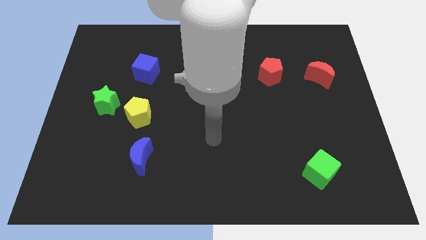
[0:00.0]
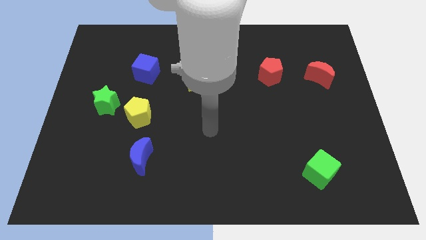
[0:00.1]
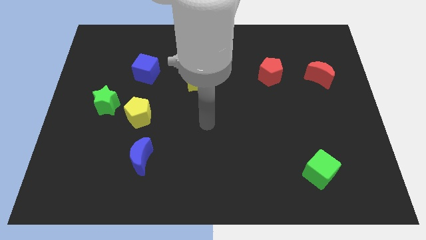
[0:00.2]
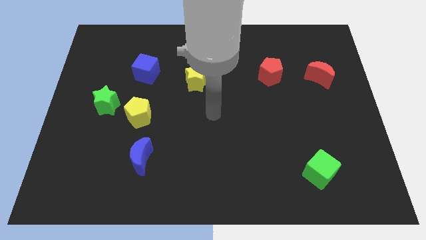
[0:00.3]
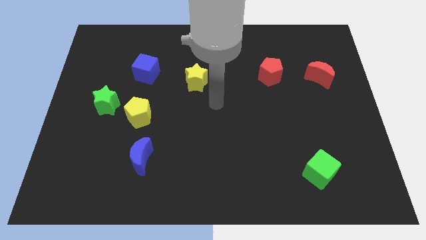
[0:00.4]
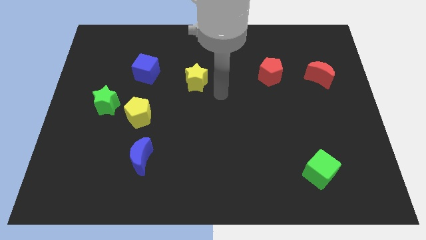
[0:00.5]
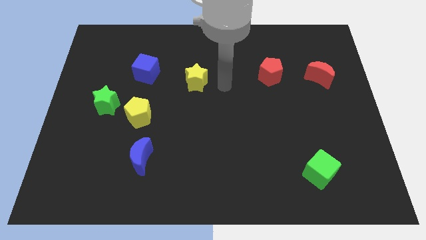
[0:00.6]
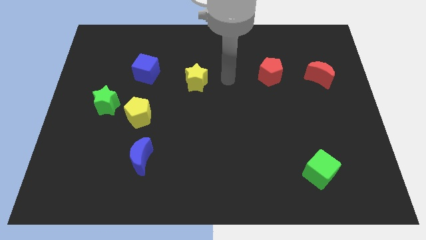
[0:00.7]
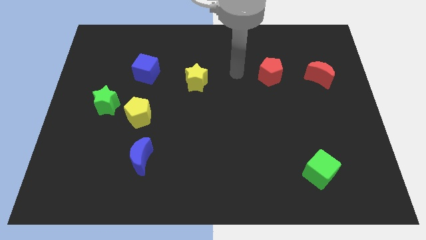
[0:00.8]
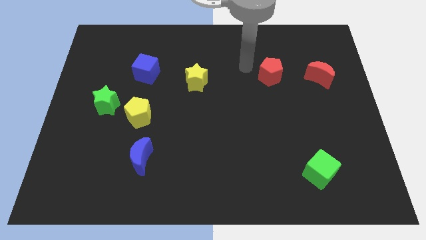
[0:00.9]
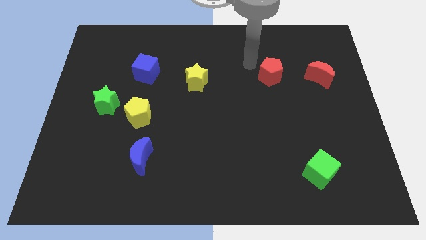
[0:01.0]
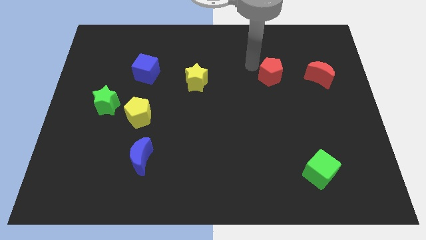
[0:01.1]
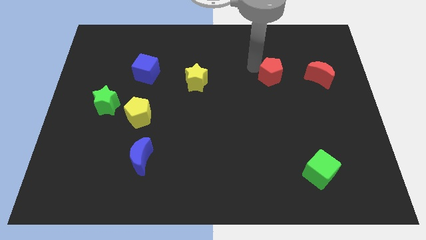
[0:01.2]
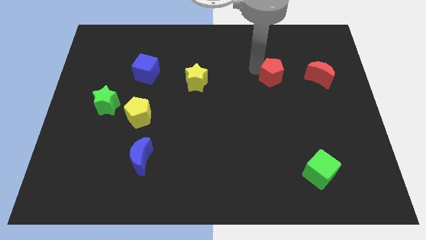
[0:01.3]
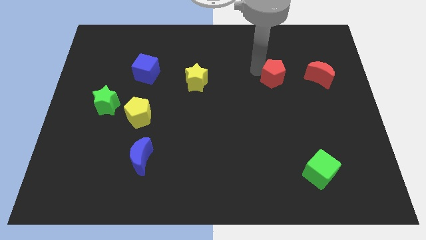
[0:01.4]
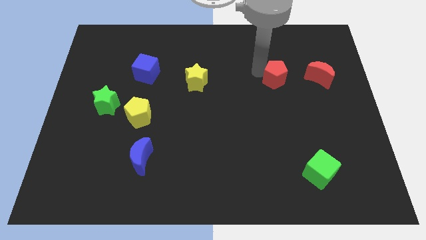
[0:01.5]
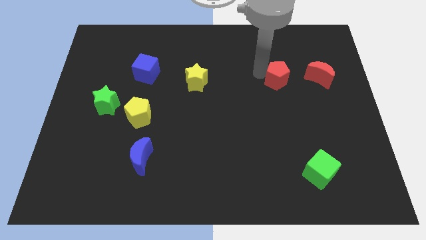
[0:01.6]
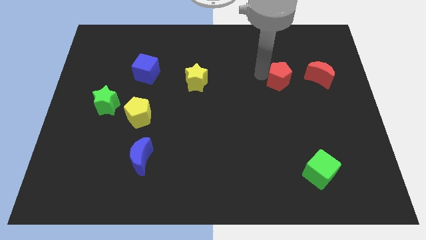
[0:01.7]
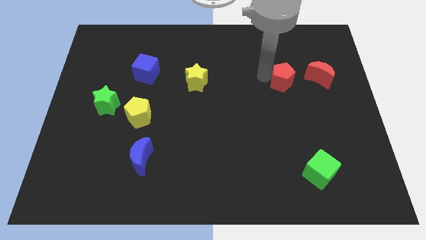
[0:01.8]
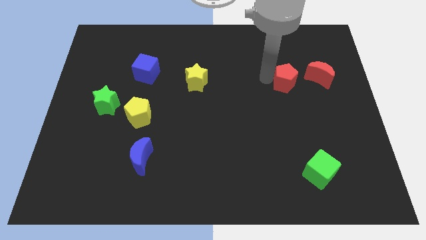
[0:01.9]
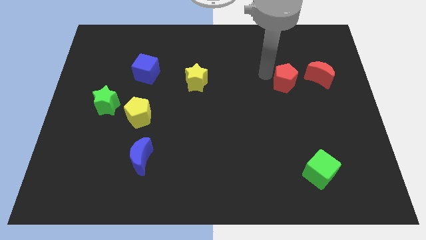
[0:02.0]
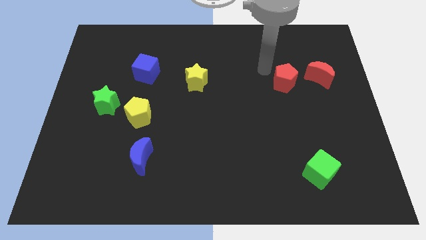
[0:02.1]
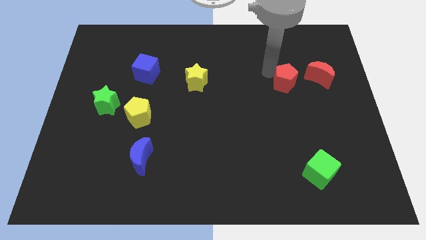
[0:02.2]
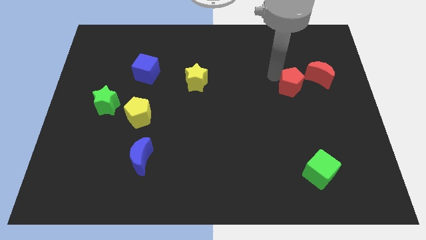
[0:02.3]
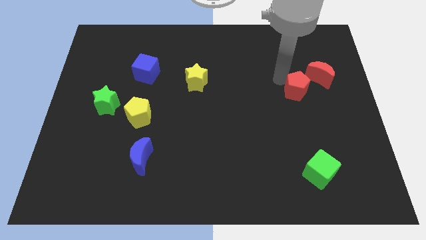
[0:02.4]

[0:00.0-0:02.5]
push the red pentagon diagonally down and right slightly

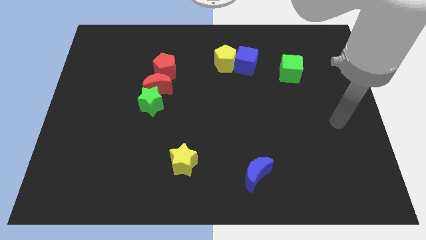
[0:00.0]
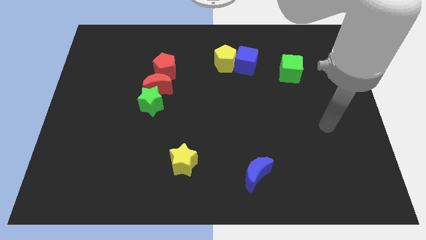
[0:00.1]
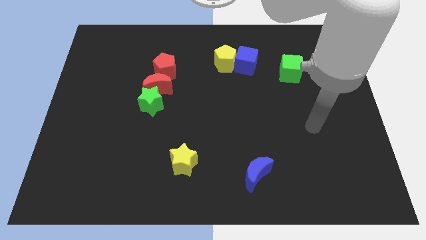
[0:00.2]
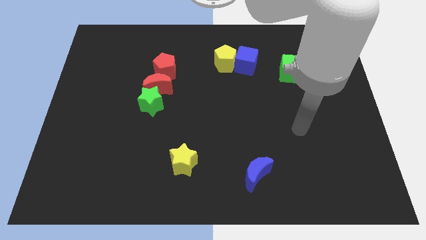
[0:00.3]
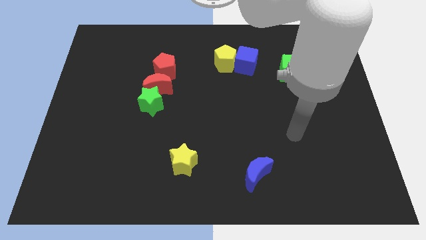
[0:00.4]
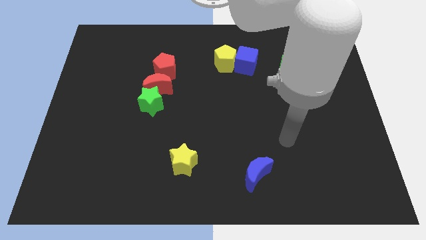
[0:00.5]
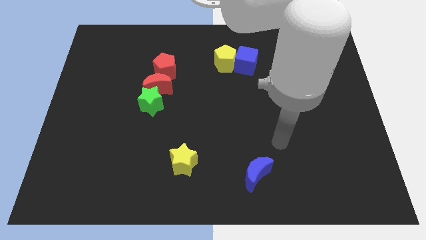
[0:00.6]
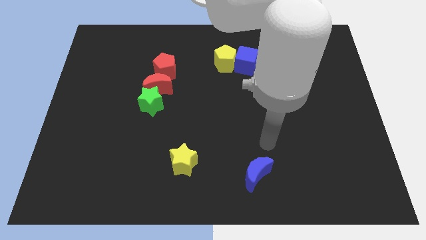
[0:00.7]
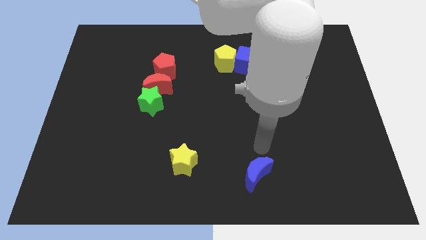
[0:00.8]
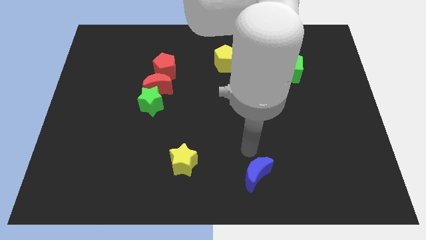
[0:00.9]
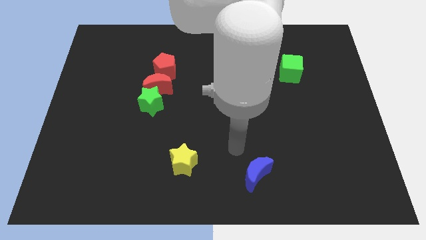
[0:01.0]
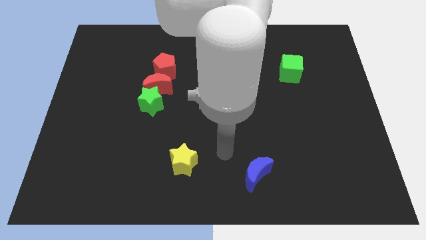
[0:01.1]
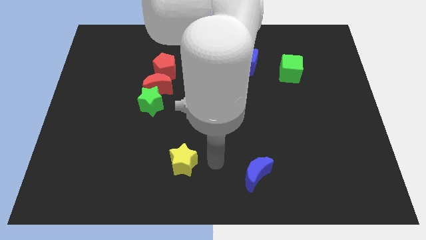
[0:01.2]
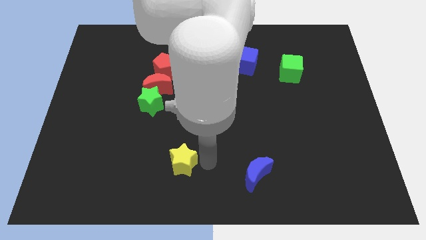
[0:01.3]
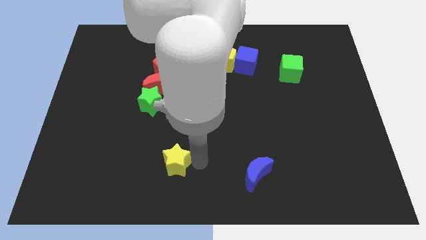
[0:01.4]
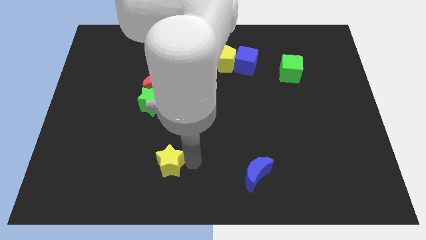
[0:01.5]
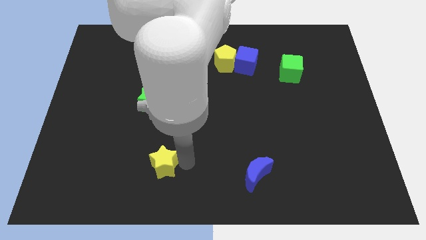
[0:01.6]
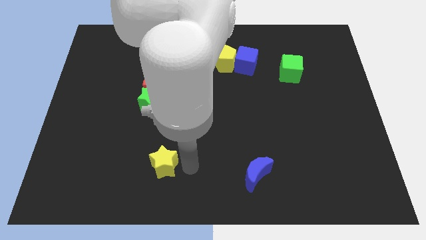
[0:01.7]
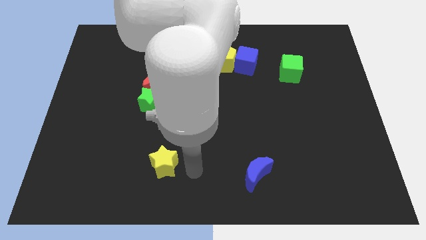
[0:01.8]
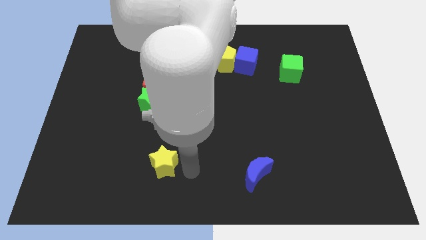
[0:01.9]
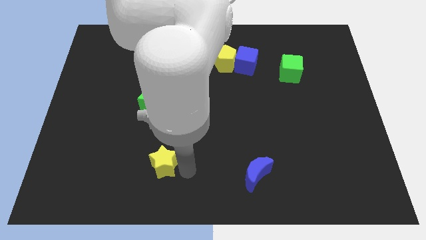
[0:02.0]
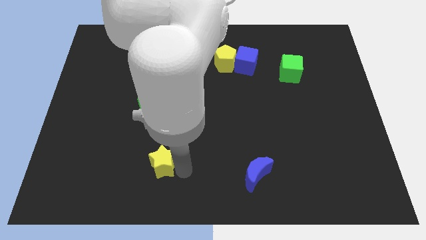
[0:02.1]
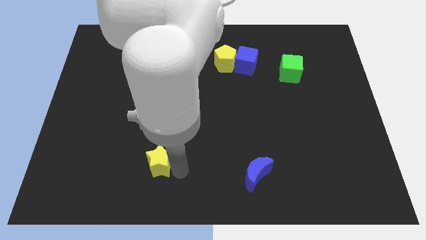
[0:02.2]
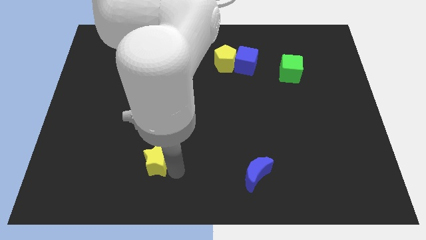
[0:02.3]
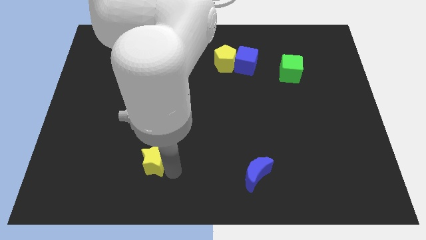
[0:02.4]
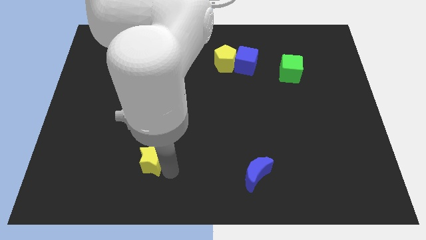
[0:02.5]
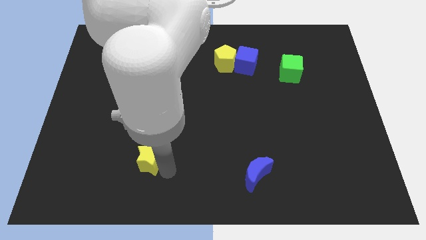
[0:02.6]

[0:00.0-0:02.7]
slightly push the yellow star to the left

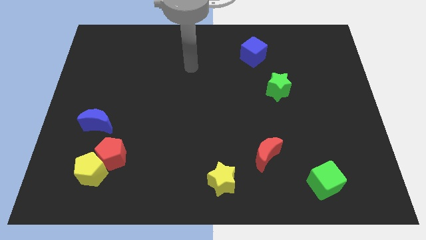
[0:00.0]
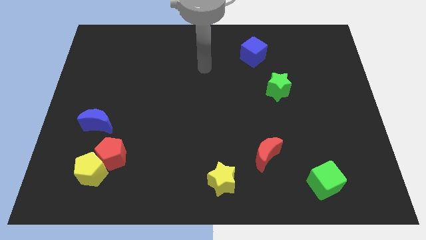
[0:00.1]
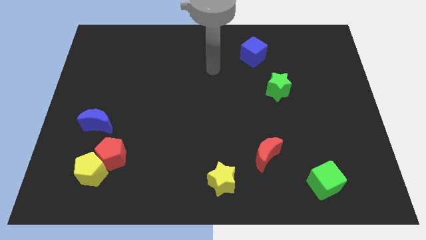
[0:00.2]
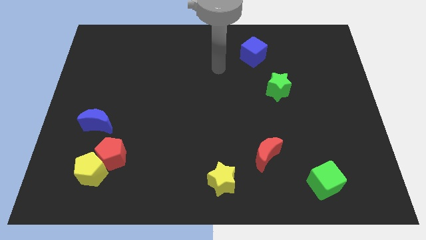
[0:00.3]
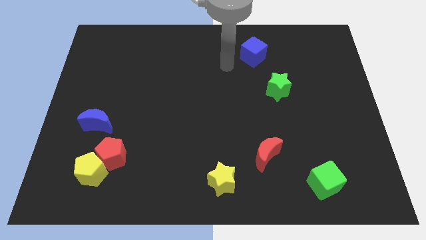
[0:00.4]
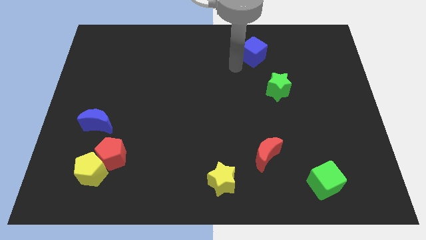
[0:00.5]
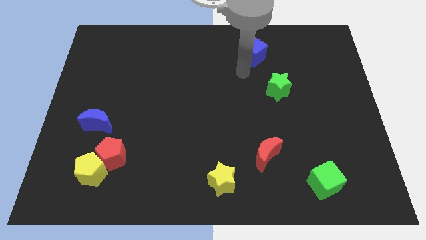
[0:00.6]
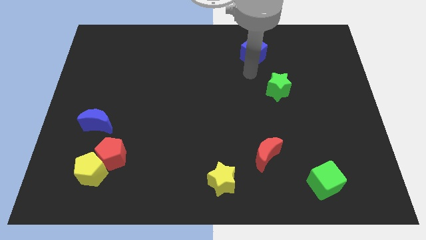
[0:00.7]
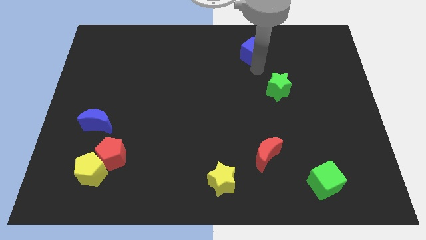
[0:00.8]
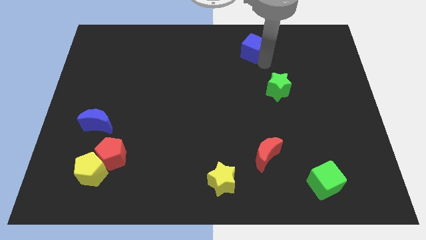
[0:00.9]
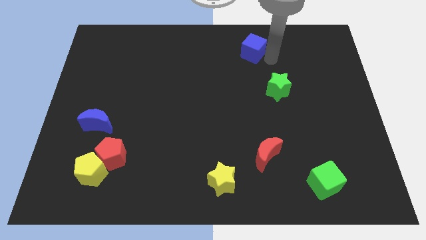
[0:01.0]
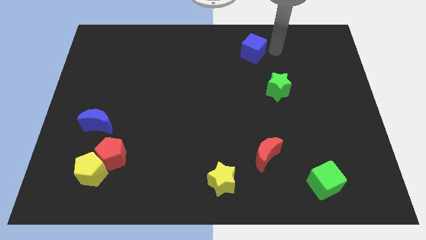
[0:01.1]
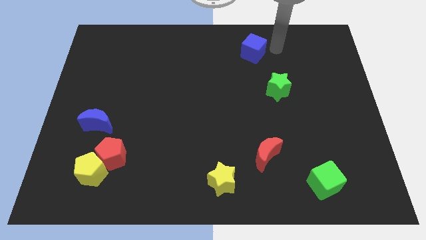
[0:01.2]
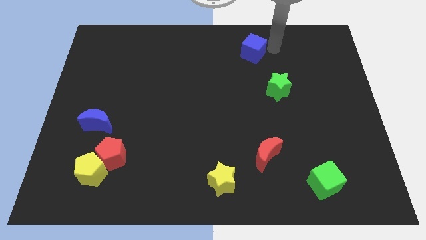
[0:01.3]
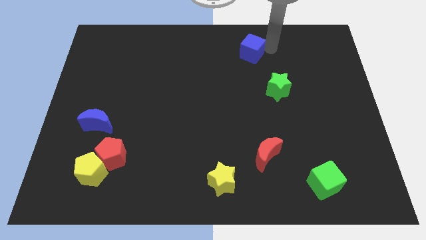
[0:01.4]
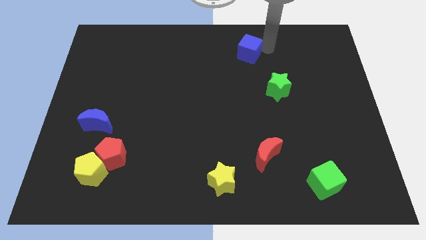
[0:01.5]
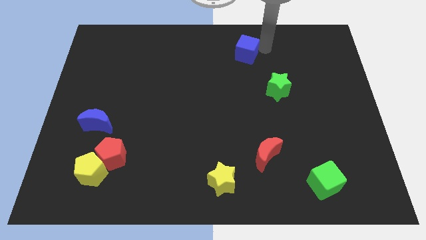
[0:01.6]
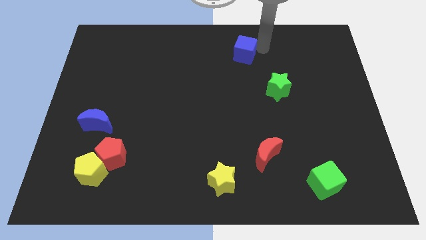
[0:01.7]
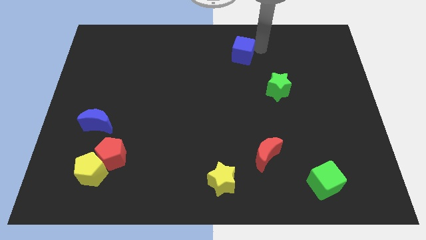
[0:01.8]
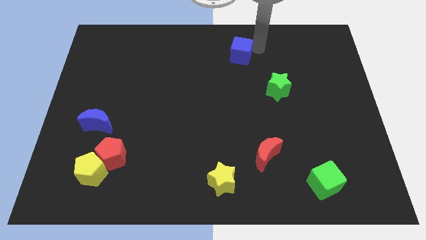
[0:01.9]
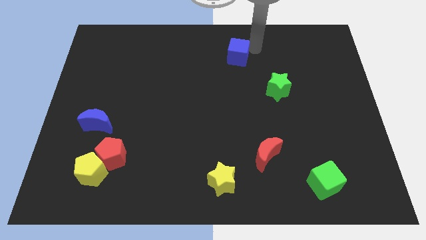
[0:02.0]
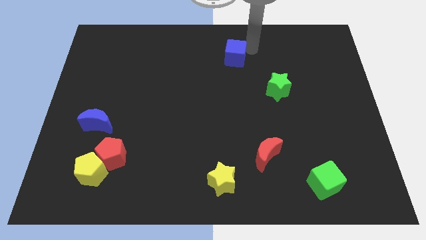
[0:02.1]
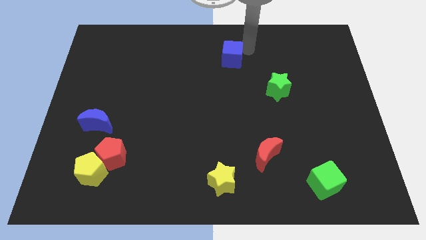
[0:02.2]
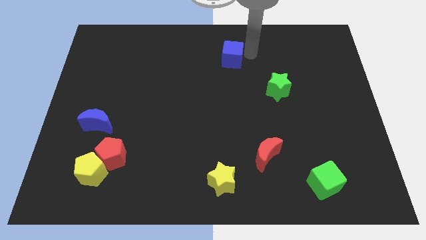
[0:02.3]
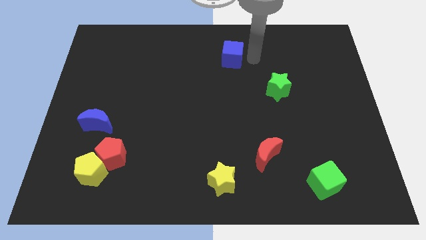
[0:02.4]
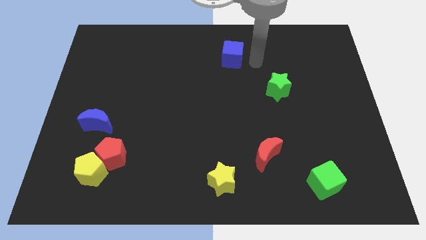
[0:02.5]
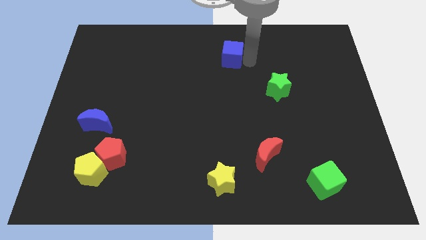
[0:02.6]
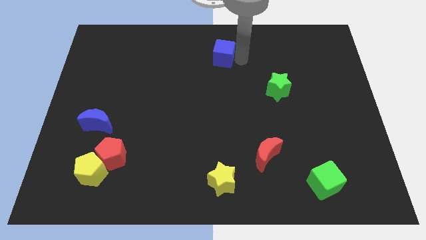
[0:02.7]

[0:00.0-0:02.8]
slide the blue cube to the left a little

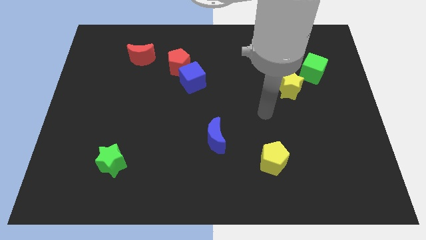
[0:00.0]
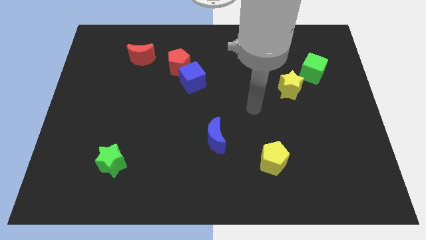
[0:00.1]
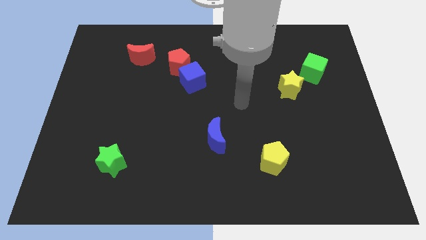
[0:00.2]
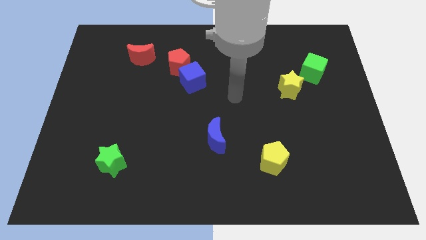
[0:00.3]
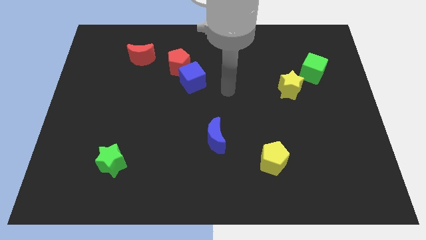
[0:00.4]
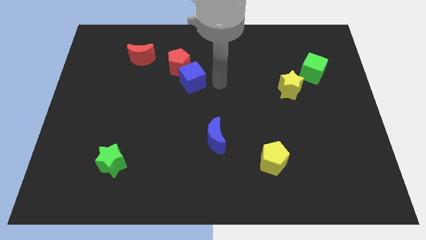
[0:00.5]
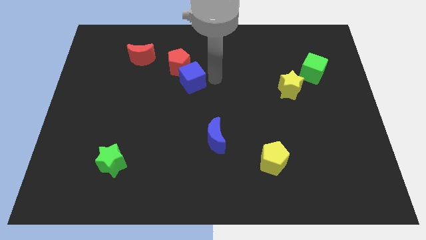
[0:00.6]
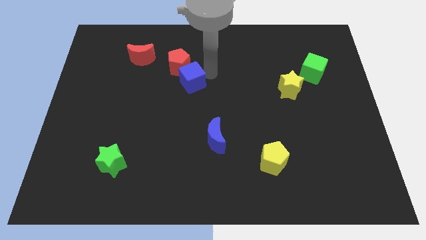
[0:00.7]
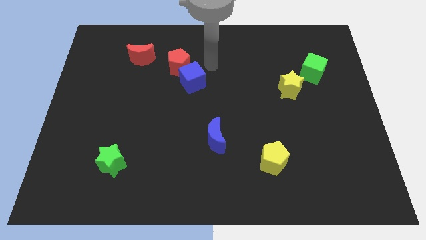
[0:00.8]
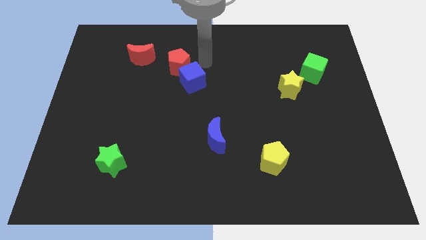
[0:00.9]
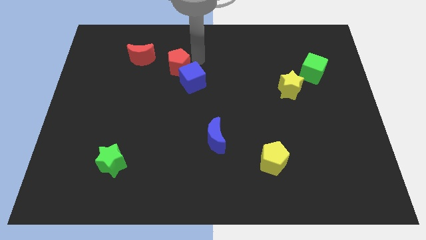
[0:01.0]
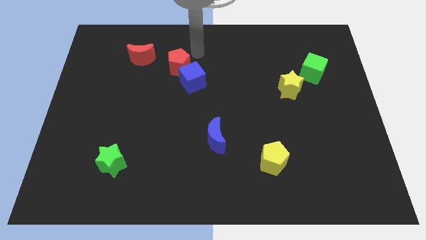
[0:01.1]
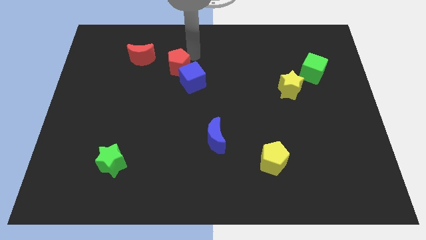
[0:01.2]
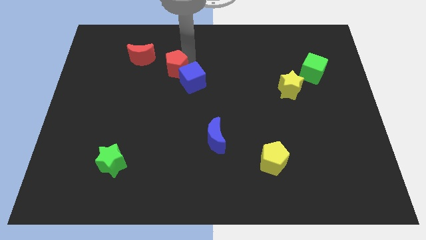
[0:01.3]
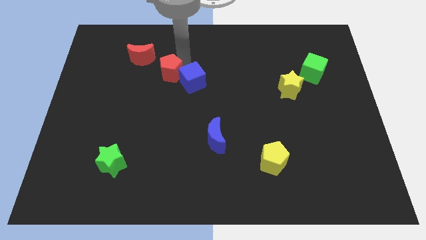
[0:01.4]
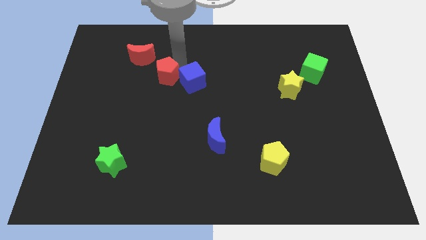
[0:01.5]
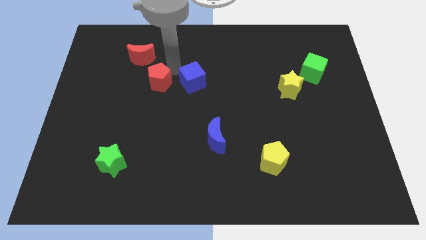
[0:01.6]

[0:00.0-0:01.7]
slide the red pentagon a bit downwards and left
